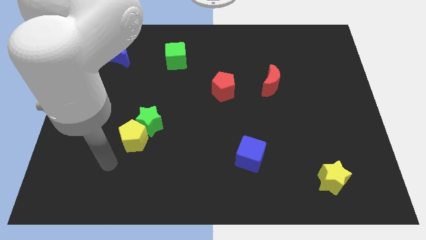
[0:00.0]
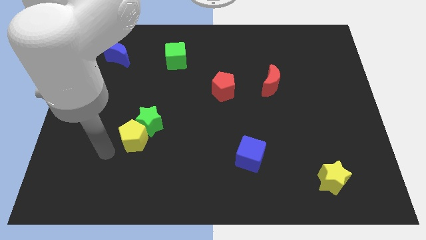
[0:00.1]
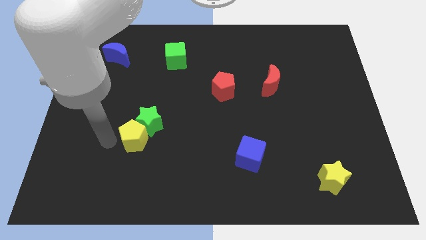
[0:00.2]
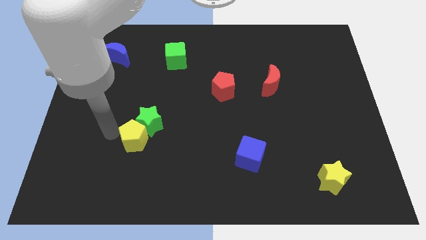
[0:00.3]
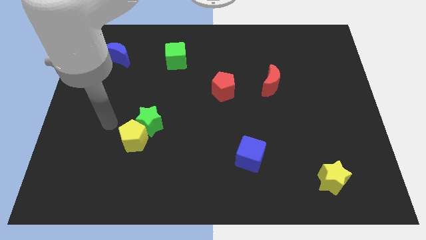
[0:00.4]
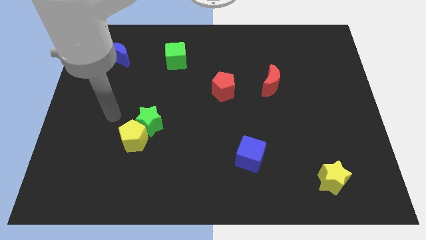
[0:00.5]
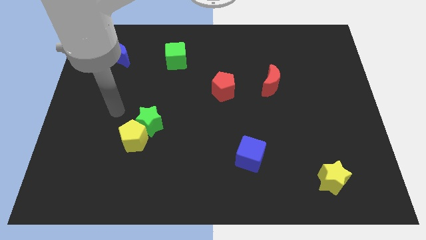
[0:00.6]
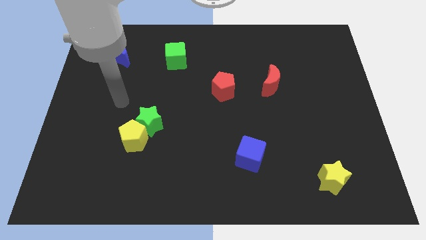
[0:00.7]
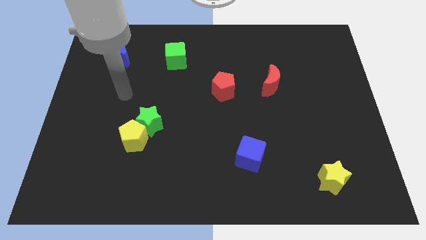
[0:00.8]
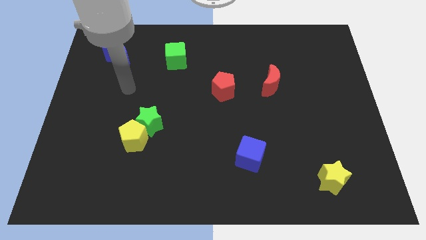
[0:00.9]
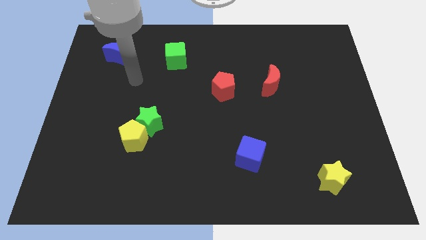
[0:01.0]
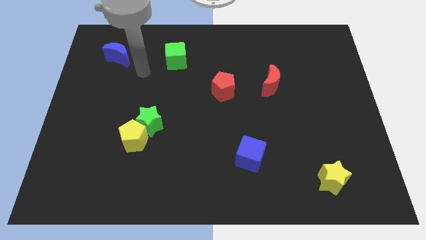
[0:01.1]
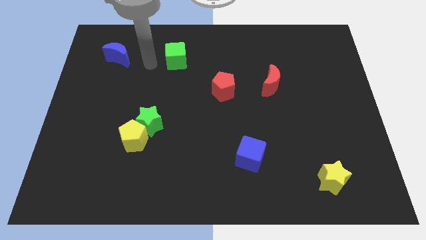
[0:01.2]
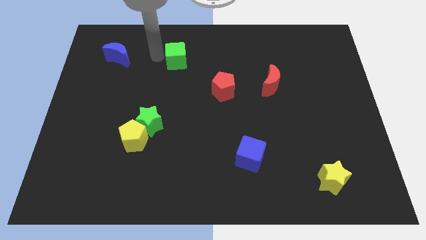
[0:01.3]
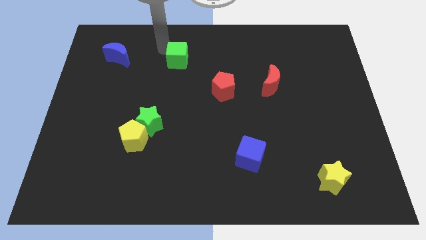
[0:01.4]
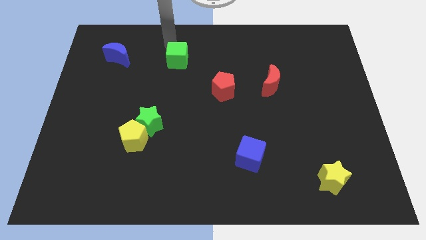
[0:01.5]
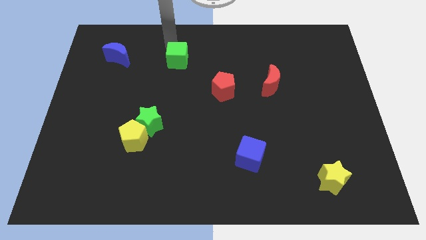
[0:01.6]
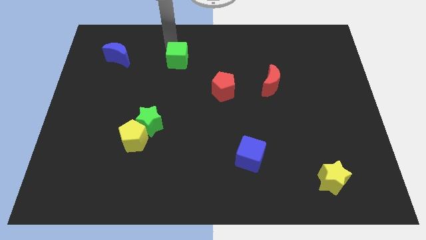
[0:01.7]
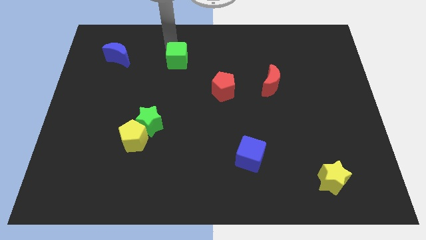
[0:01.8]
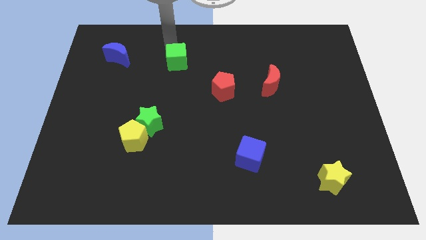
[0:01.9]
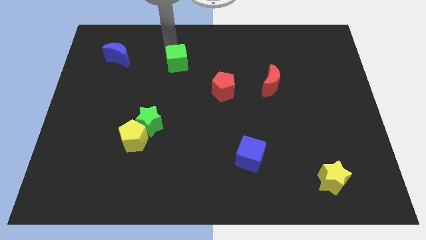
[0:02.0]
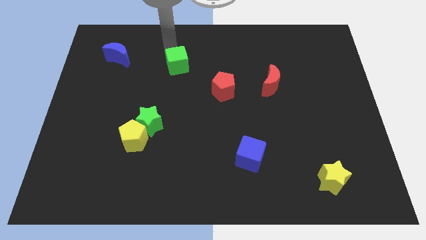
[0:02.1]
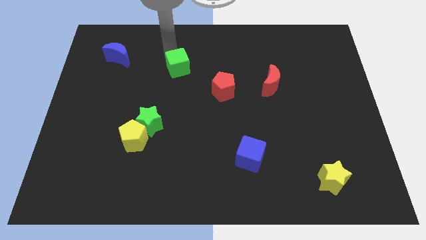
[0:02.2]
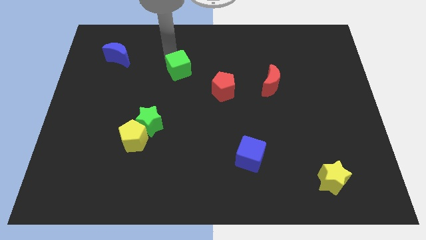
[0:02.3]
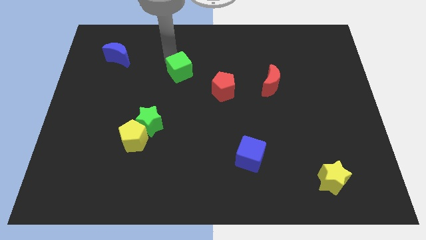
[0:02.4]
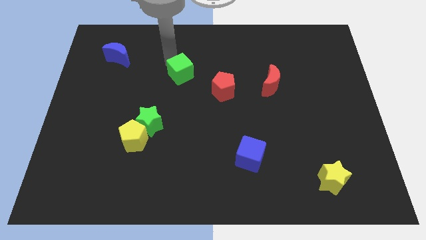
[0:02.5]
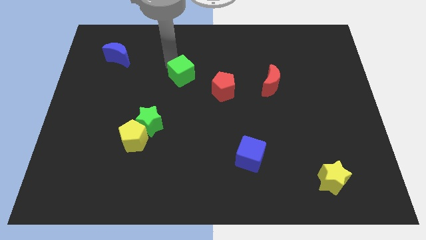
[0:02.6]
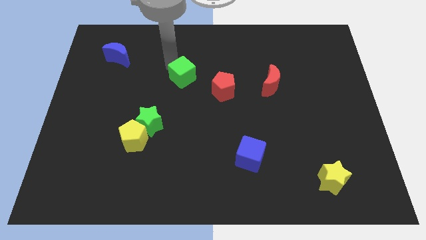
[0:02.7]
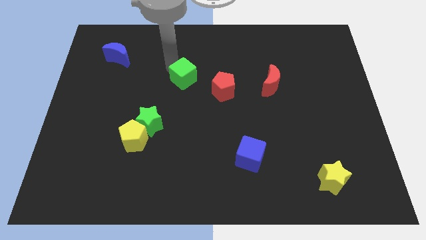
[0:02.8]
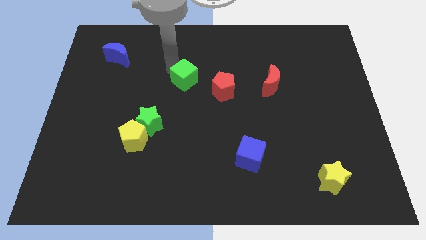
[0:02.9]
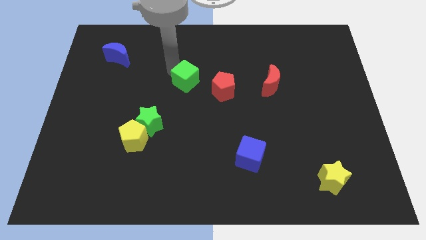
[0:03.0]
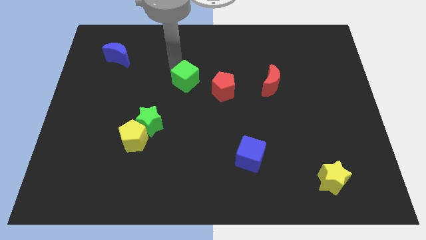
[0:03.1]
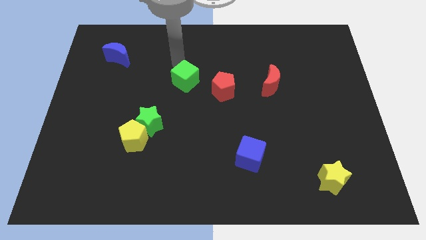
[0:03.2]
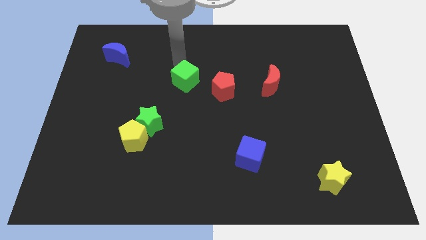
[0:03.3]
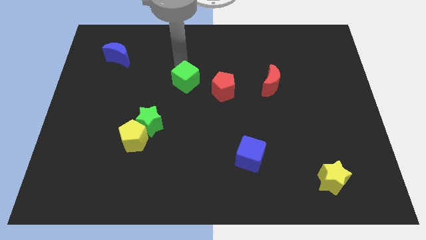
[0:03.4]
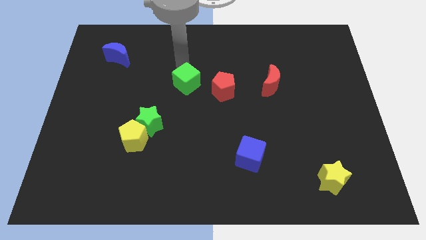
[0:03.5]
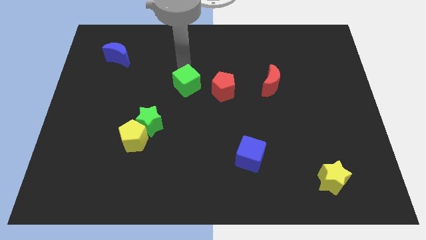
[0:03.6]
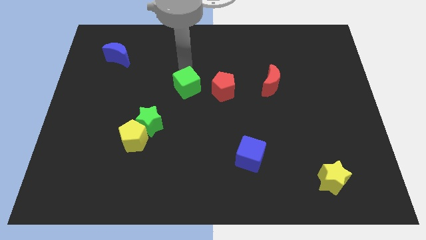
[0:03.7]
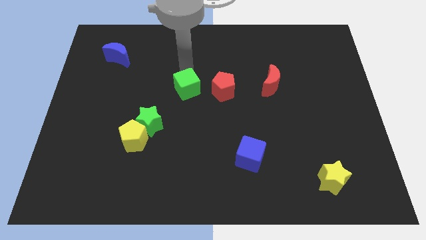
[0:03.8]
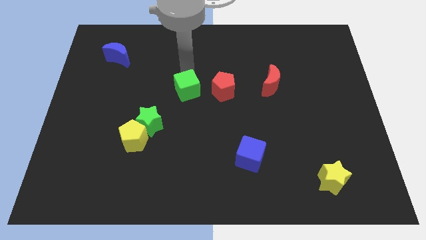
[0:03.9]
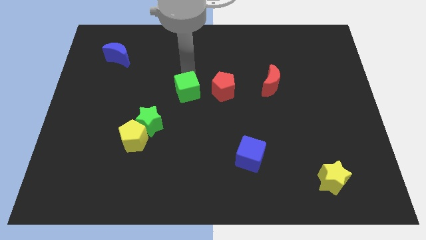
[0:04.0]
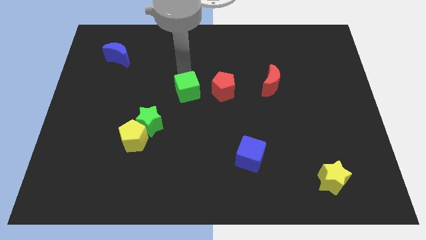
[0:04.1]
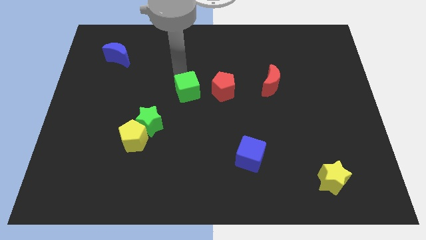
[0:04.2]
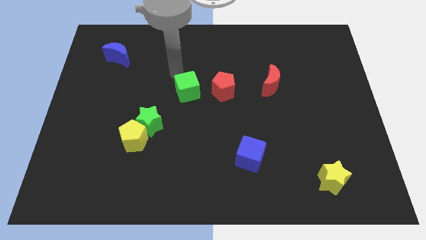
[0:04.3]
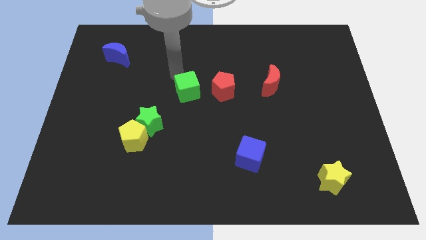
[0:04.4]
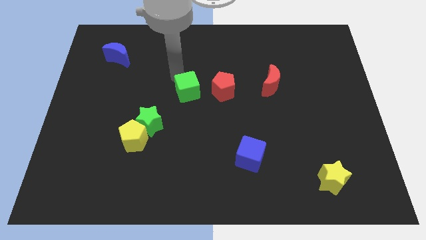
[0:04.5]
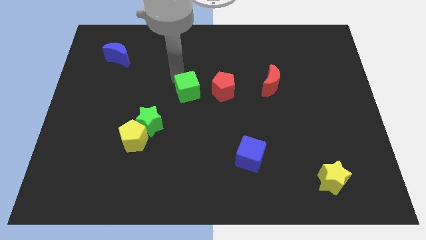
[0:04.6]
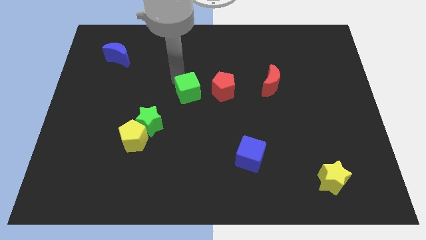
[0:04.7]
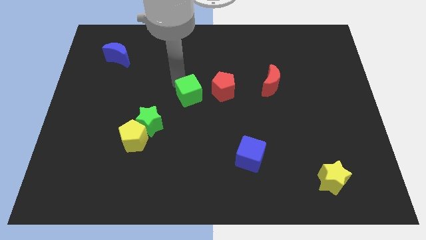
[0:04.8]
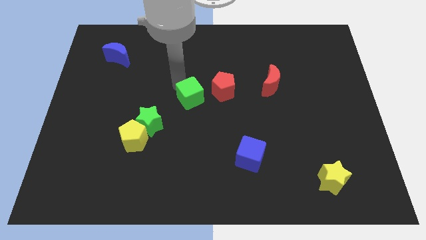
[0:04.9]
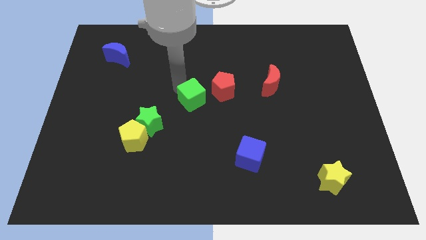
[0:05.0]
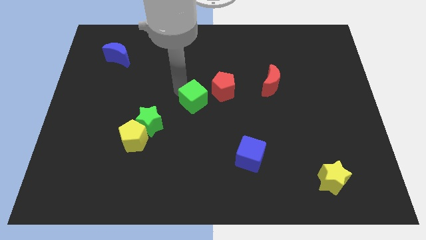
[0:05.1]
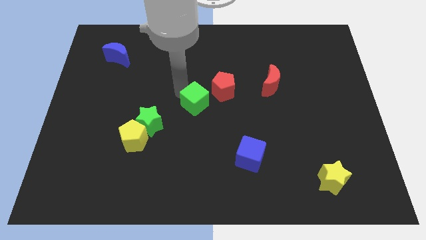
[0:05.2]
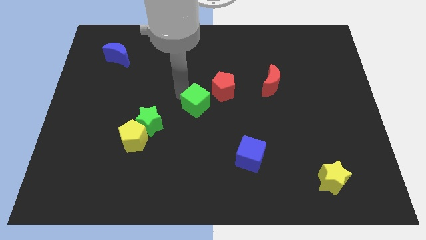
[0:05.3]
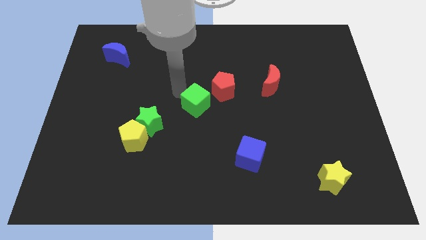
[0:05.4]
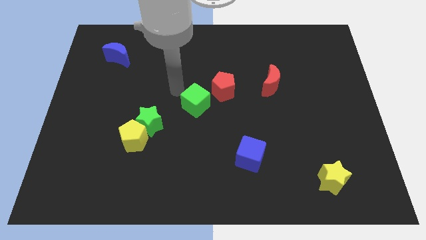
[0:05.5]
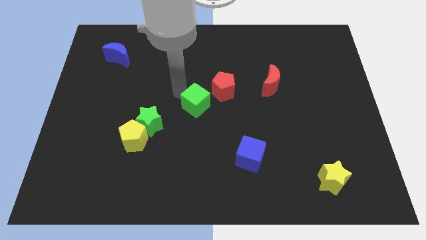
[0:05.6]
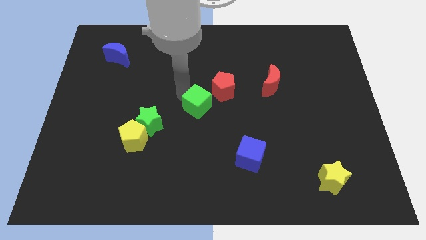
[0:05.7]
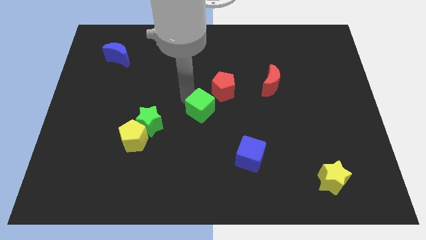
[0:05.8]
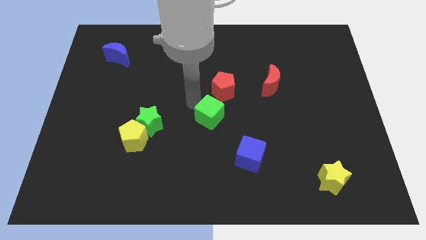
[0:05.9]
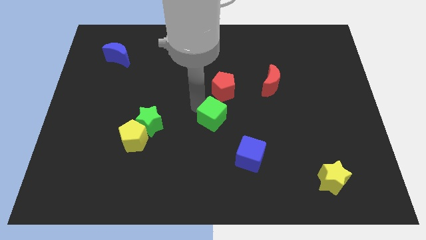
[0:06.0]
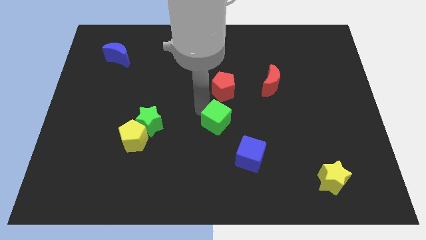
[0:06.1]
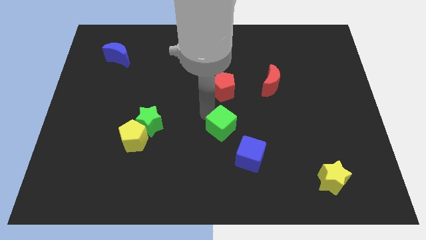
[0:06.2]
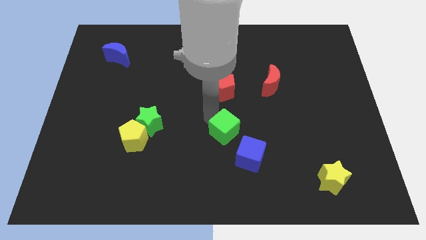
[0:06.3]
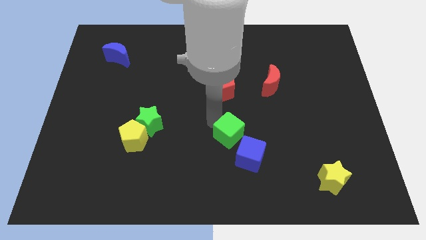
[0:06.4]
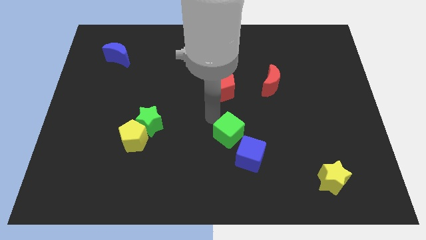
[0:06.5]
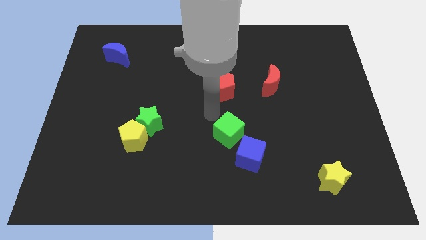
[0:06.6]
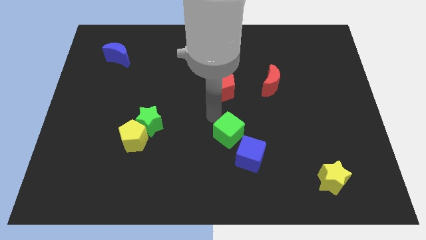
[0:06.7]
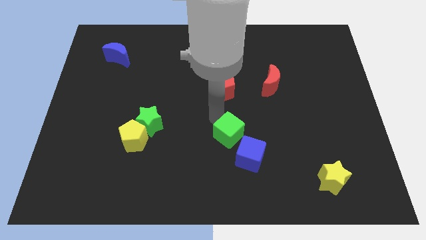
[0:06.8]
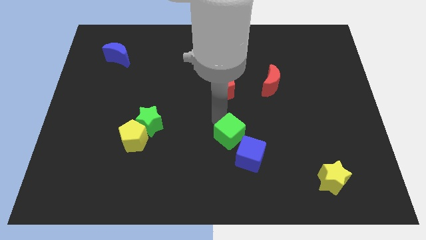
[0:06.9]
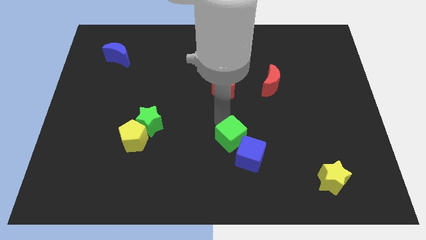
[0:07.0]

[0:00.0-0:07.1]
put the green cube towards the blue cube

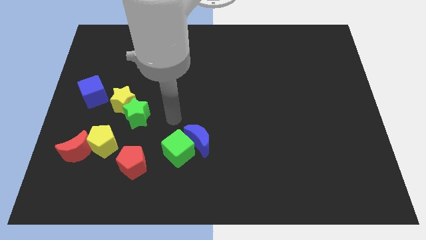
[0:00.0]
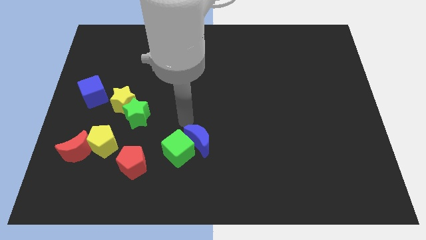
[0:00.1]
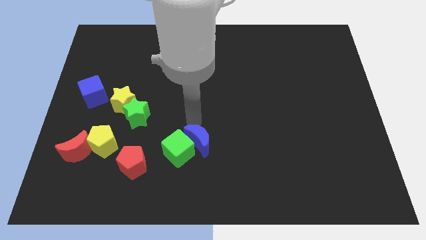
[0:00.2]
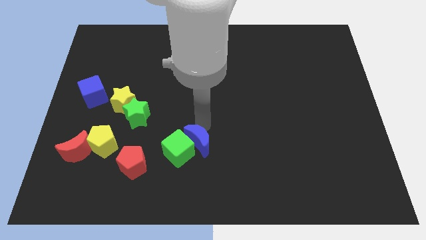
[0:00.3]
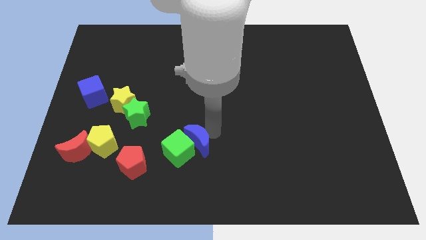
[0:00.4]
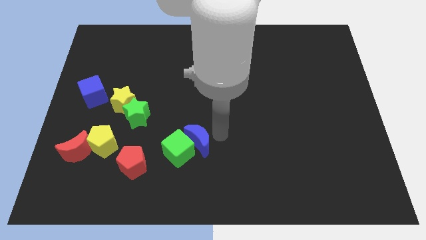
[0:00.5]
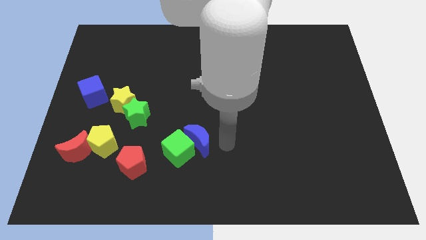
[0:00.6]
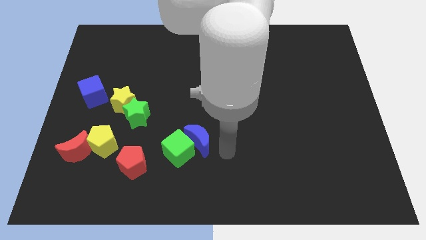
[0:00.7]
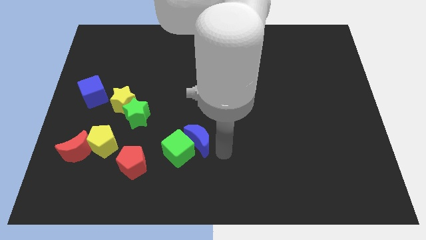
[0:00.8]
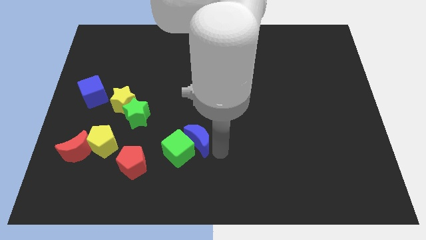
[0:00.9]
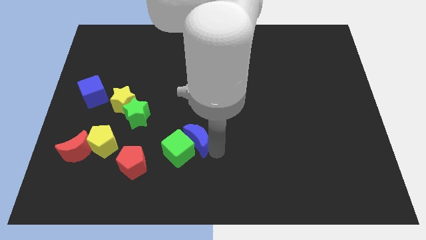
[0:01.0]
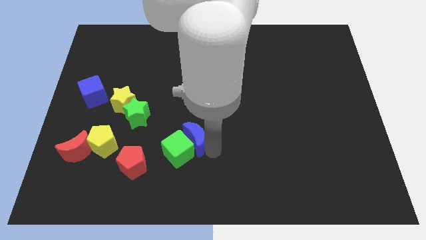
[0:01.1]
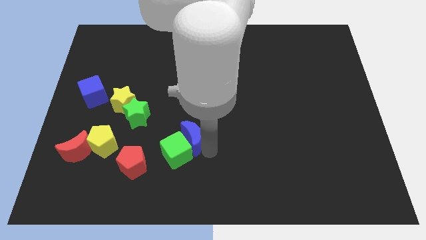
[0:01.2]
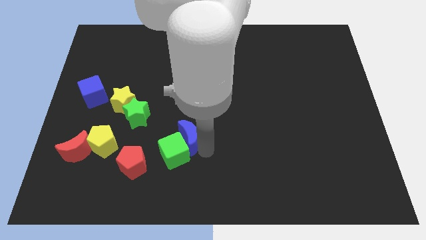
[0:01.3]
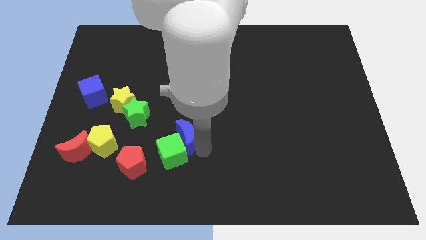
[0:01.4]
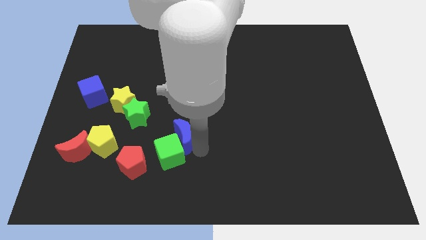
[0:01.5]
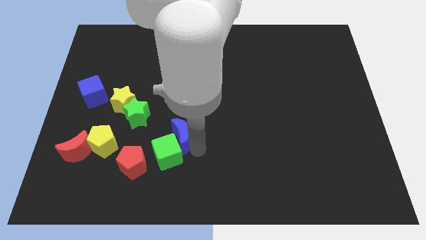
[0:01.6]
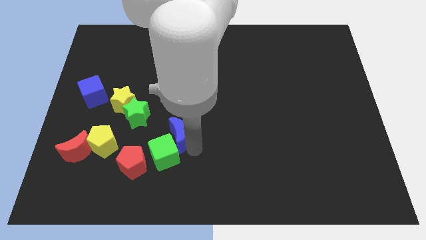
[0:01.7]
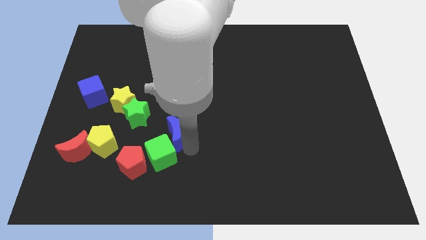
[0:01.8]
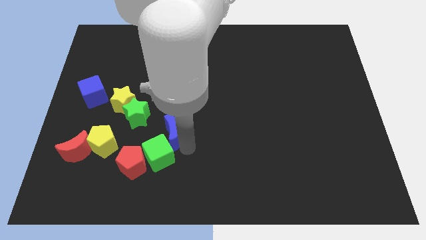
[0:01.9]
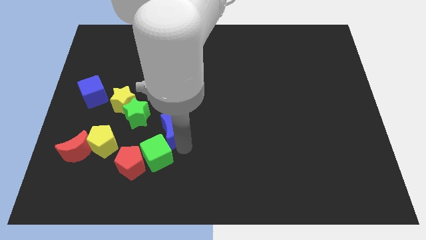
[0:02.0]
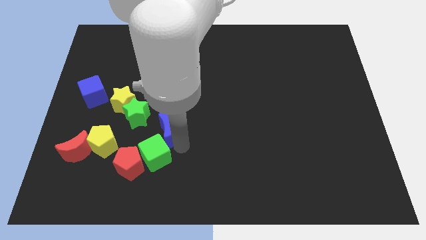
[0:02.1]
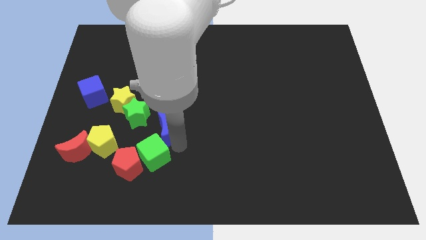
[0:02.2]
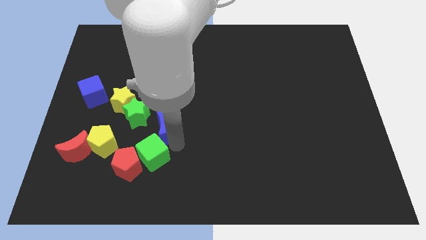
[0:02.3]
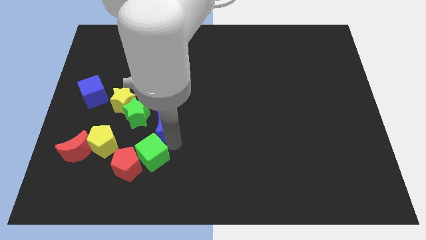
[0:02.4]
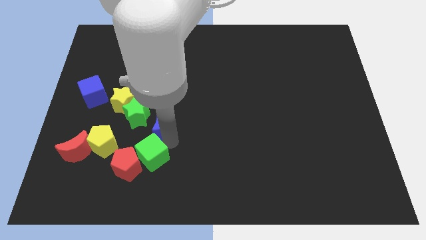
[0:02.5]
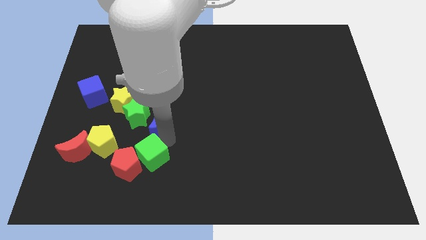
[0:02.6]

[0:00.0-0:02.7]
move the blue moon towards the green star
